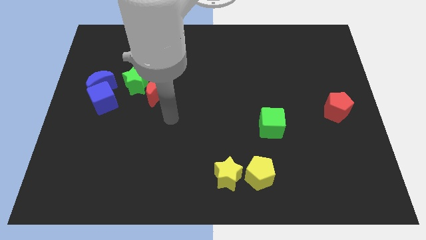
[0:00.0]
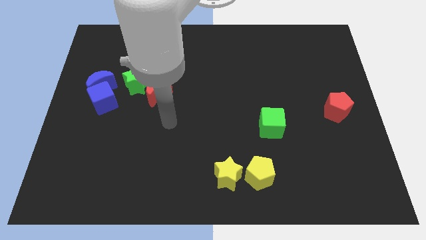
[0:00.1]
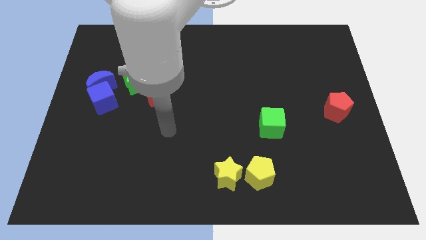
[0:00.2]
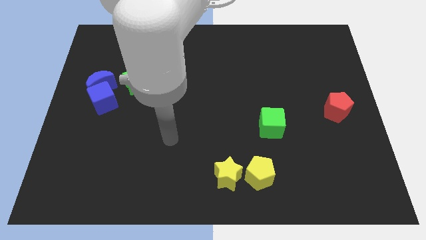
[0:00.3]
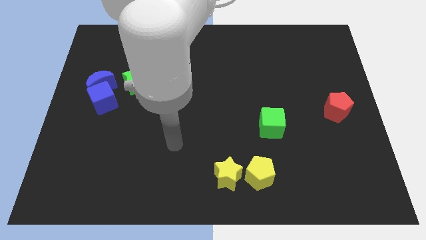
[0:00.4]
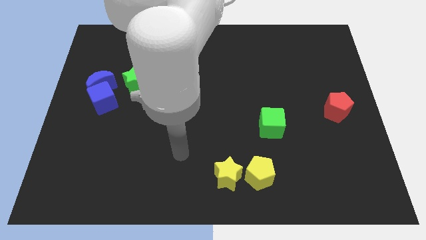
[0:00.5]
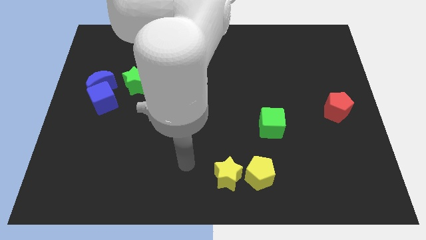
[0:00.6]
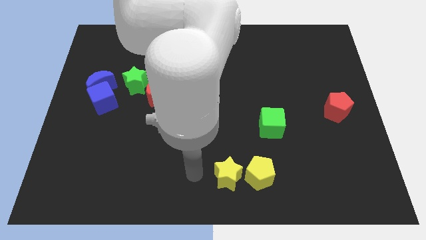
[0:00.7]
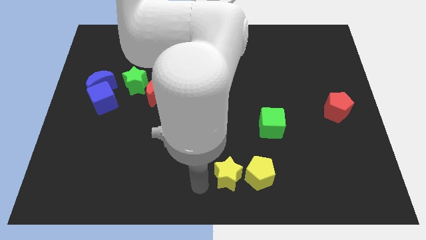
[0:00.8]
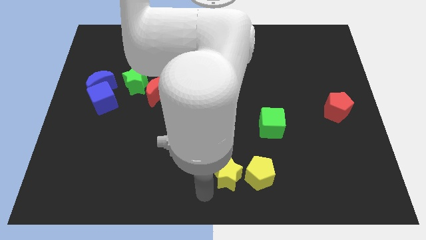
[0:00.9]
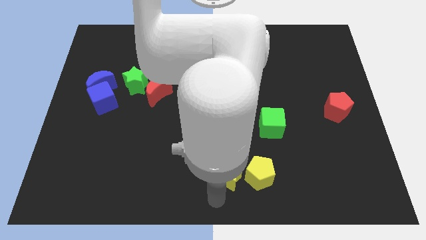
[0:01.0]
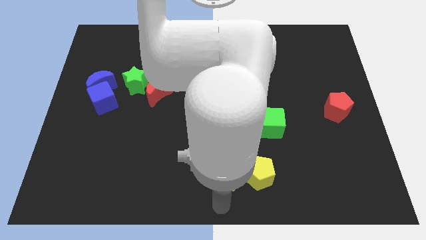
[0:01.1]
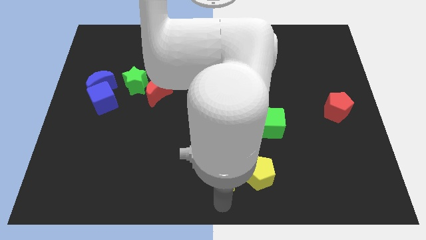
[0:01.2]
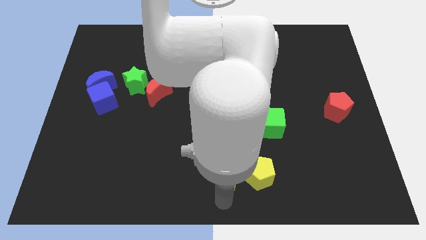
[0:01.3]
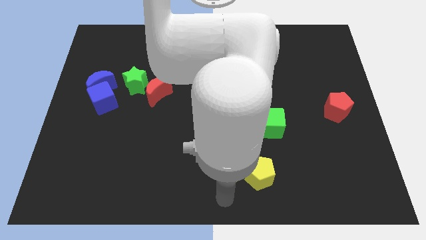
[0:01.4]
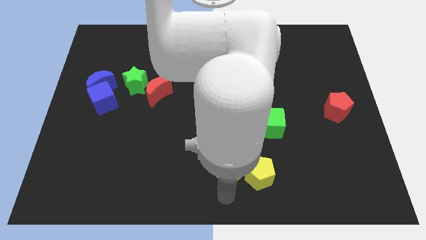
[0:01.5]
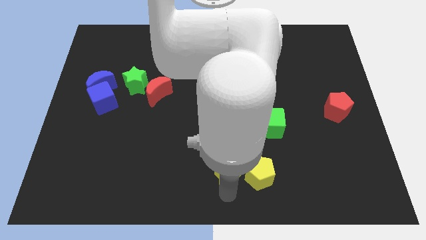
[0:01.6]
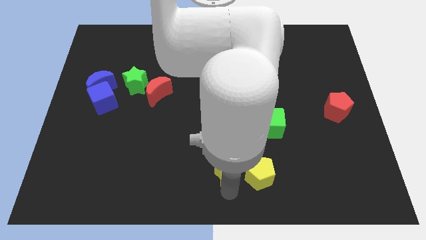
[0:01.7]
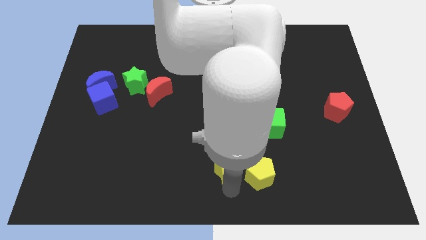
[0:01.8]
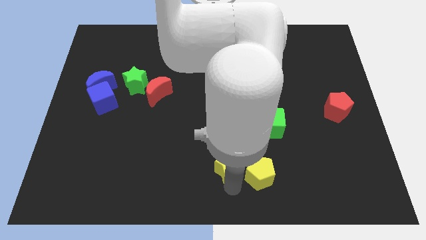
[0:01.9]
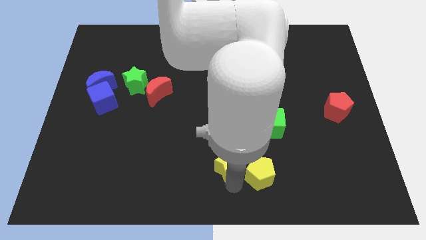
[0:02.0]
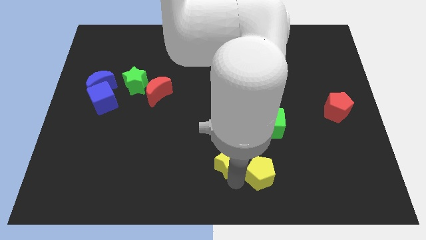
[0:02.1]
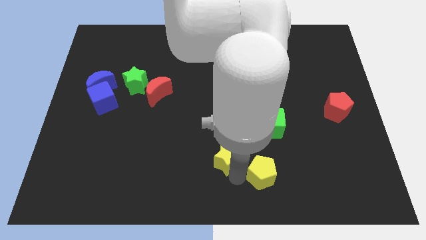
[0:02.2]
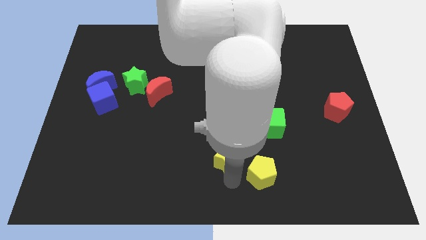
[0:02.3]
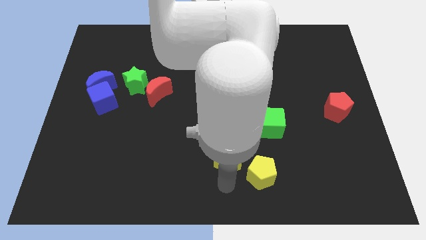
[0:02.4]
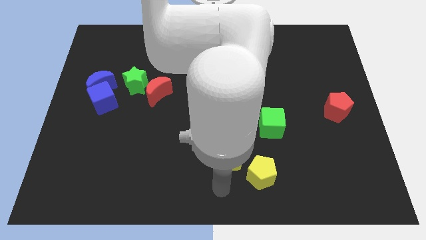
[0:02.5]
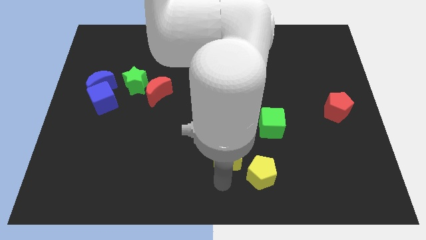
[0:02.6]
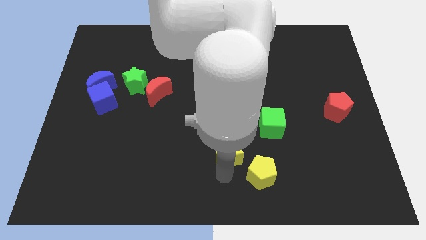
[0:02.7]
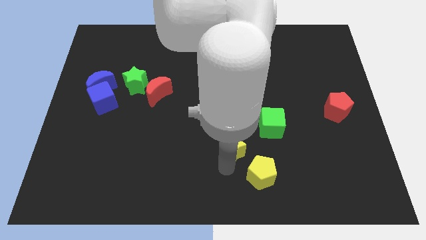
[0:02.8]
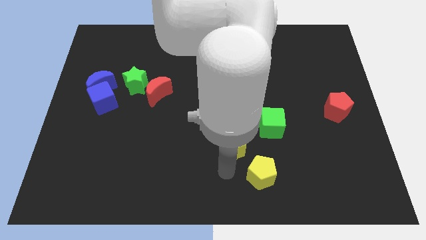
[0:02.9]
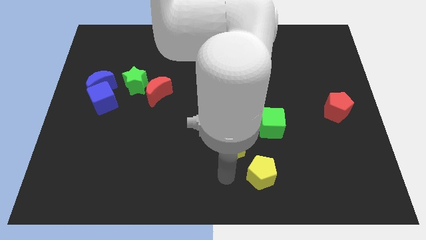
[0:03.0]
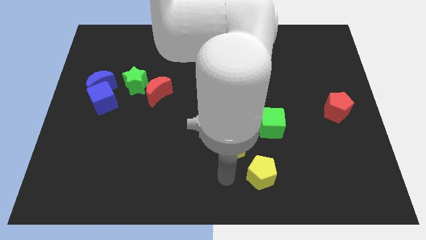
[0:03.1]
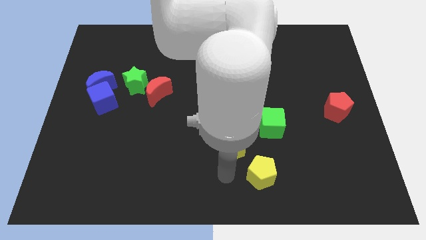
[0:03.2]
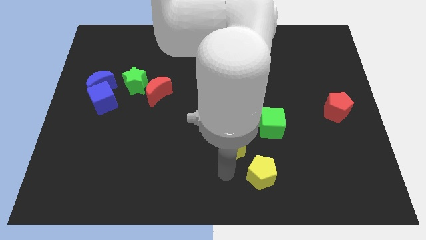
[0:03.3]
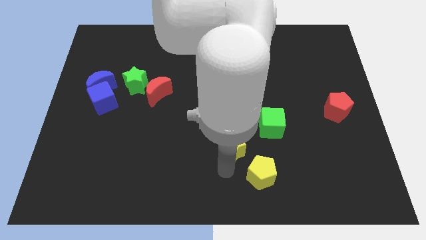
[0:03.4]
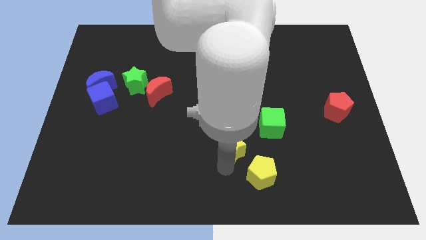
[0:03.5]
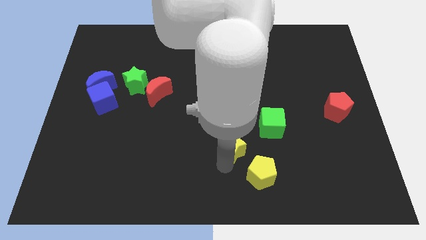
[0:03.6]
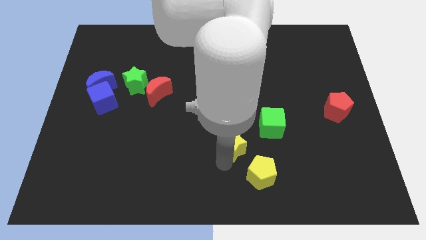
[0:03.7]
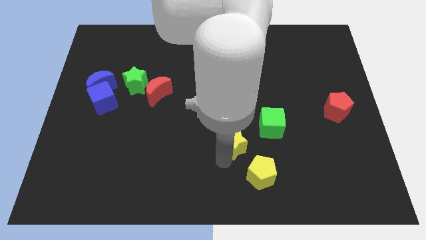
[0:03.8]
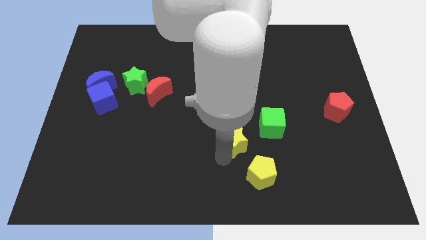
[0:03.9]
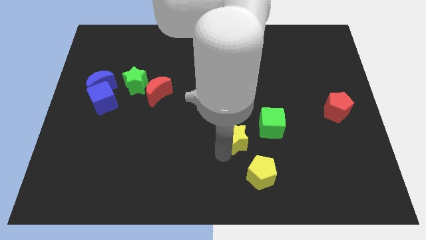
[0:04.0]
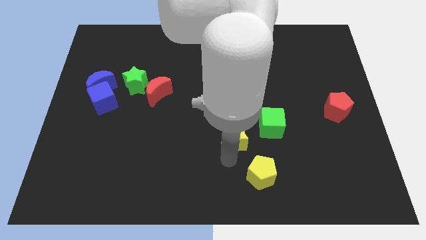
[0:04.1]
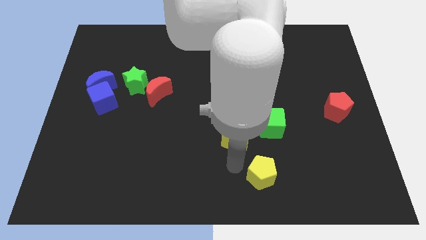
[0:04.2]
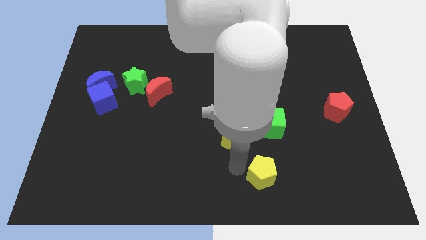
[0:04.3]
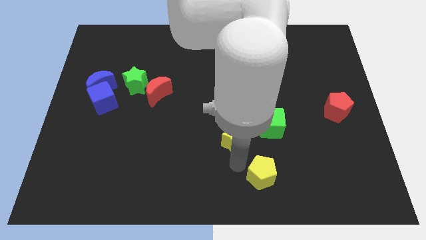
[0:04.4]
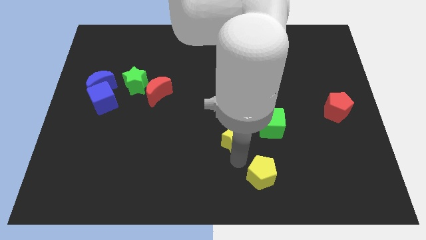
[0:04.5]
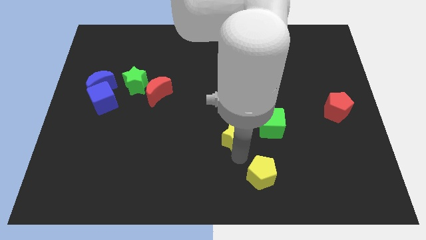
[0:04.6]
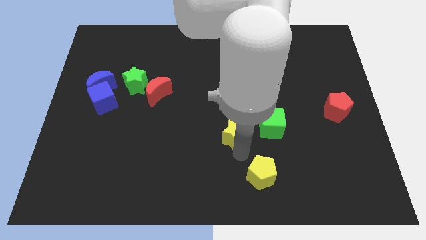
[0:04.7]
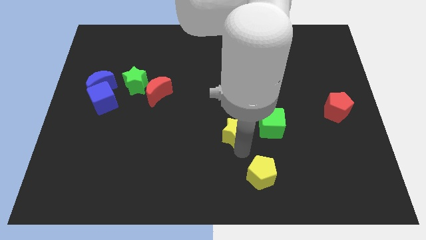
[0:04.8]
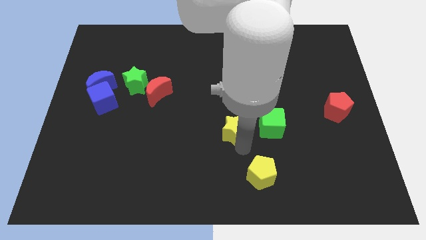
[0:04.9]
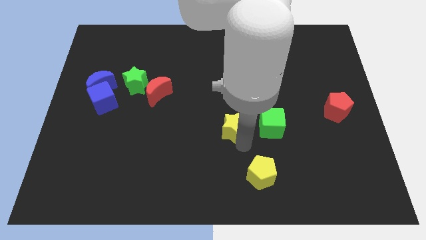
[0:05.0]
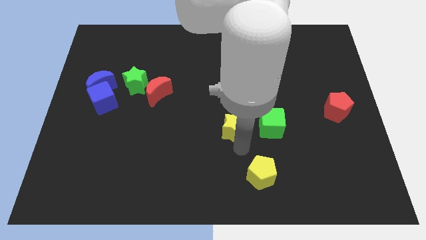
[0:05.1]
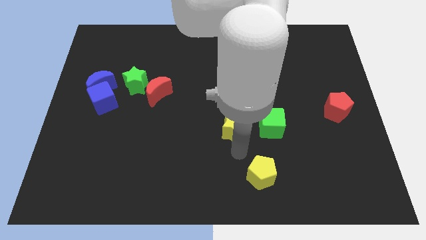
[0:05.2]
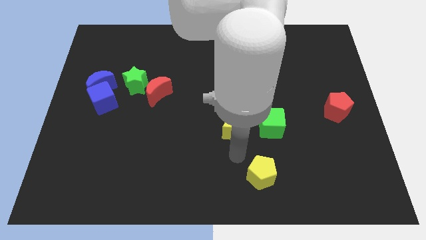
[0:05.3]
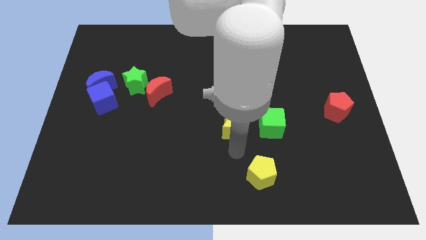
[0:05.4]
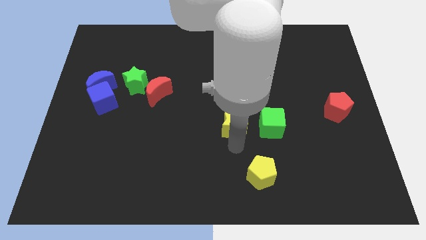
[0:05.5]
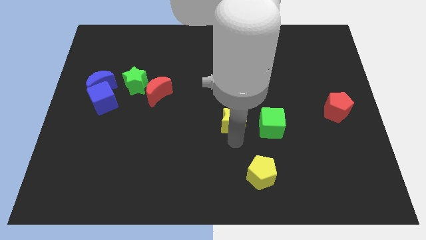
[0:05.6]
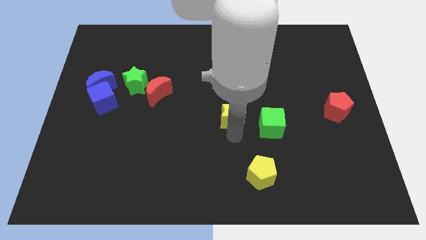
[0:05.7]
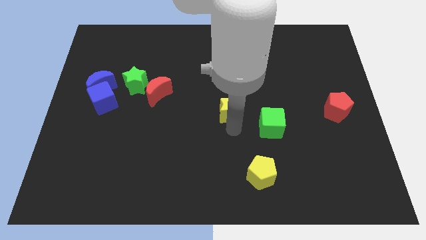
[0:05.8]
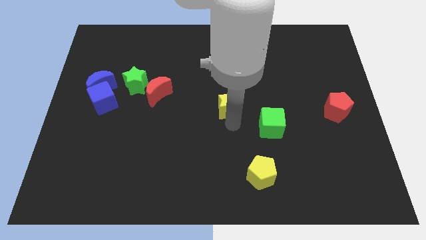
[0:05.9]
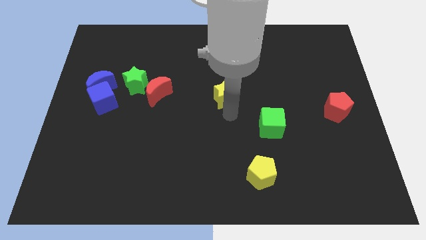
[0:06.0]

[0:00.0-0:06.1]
move the yellow star upwards

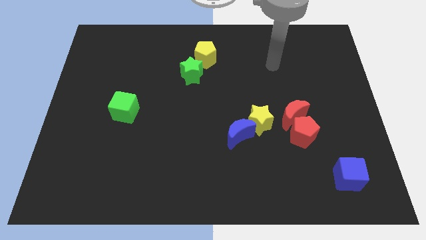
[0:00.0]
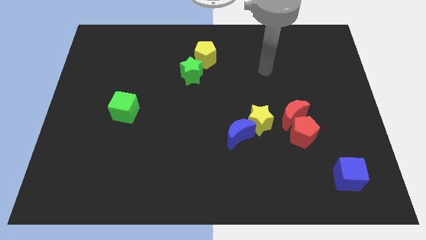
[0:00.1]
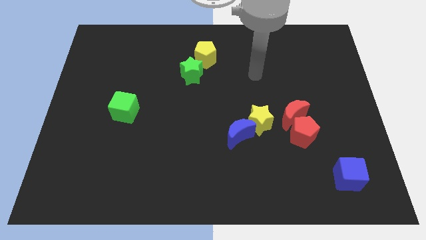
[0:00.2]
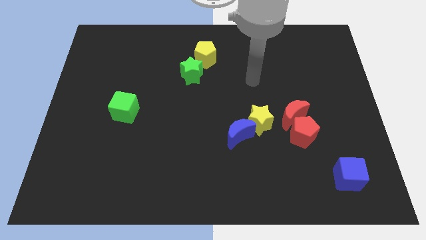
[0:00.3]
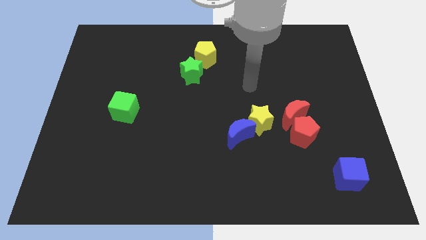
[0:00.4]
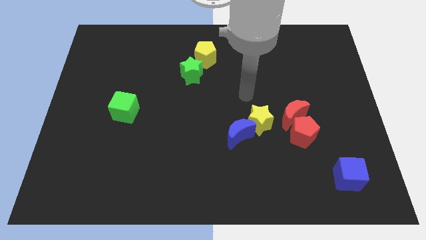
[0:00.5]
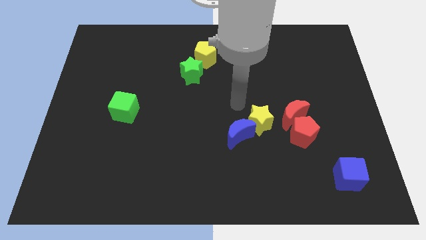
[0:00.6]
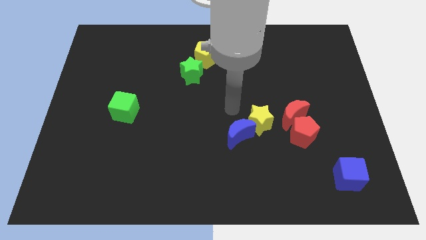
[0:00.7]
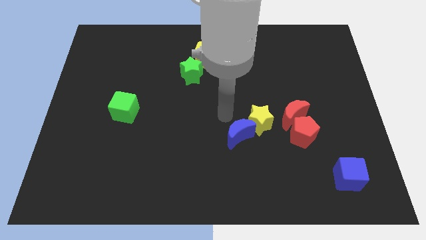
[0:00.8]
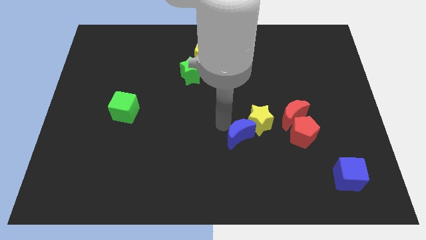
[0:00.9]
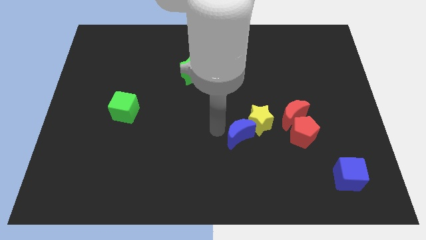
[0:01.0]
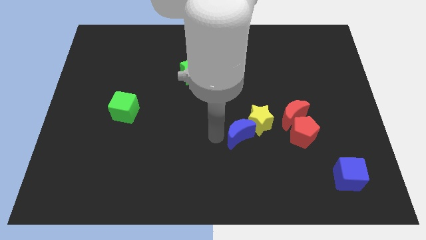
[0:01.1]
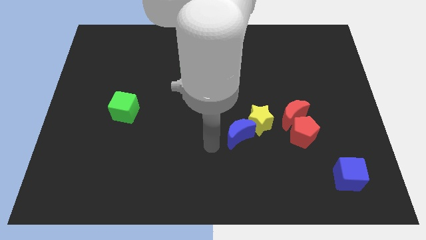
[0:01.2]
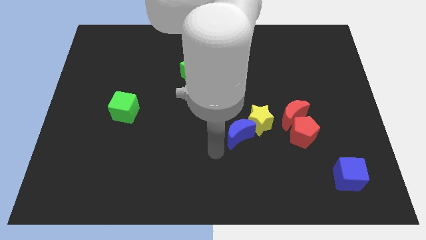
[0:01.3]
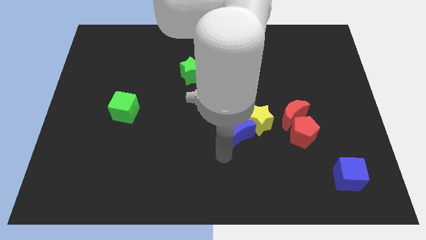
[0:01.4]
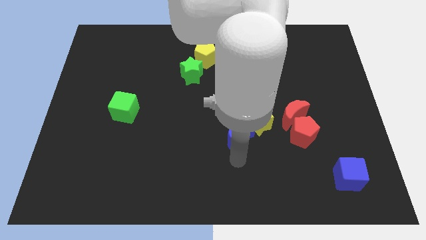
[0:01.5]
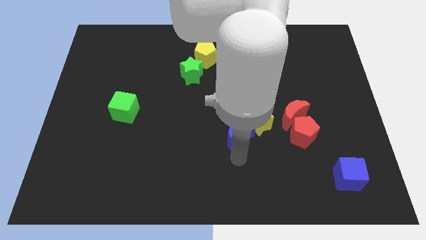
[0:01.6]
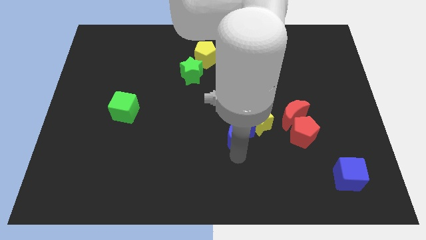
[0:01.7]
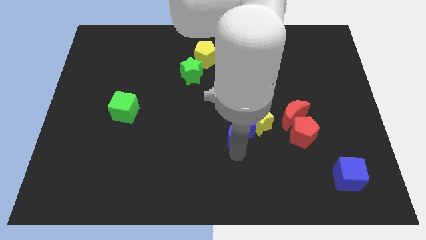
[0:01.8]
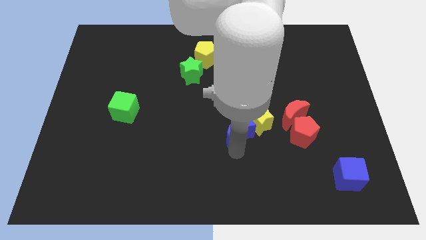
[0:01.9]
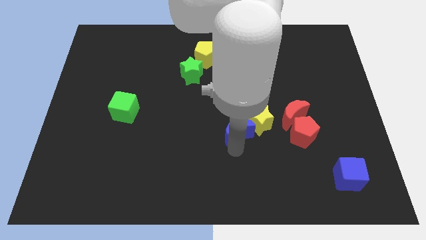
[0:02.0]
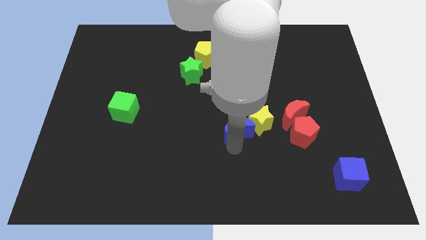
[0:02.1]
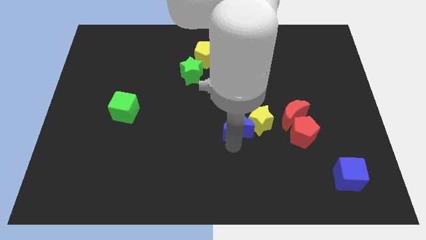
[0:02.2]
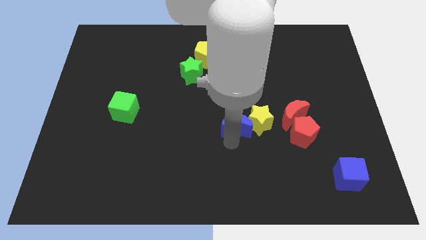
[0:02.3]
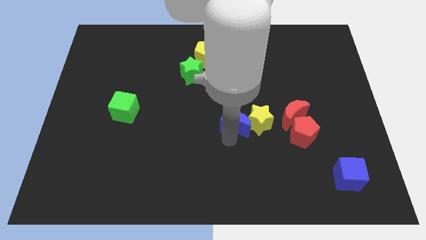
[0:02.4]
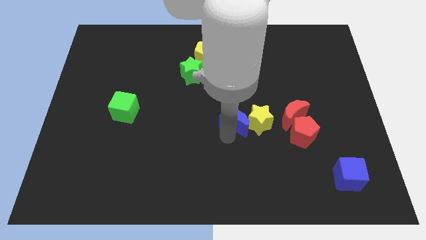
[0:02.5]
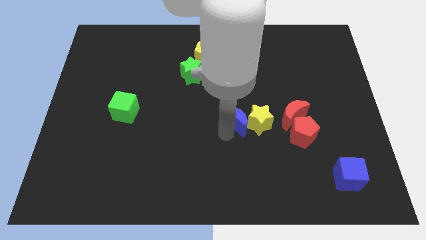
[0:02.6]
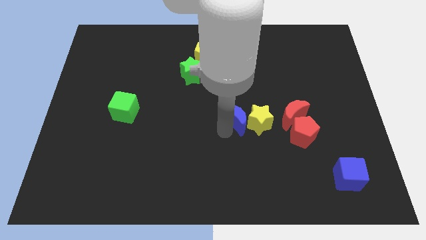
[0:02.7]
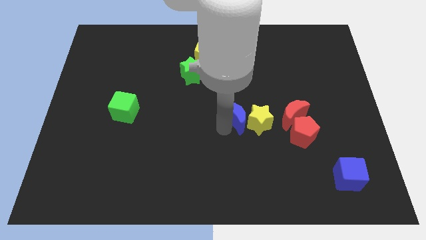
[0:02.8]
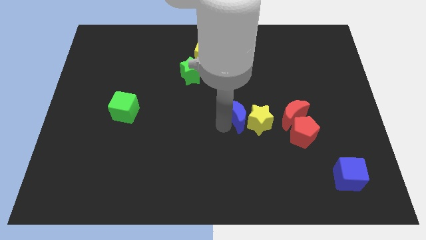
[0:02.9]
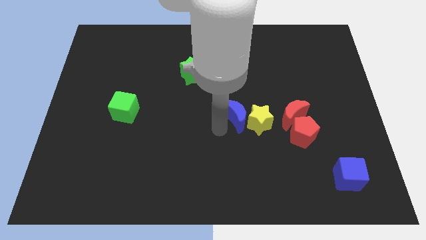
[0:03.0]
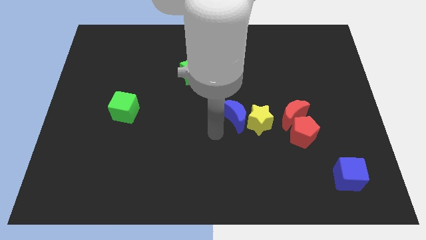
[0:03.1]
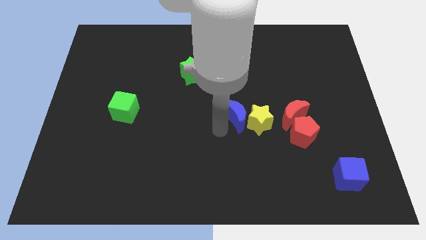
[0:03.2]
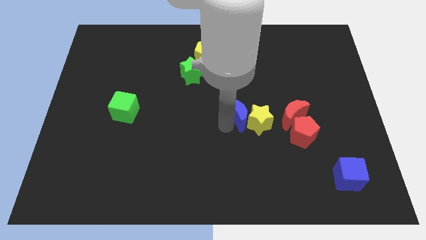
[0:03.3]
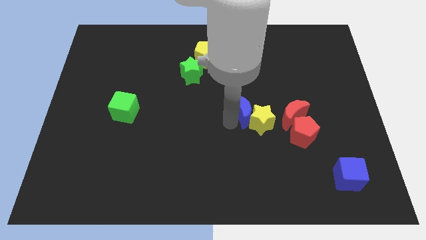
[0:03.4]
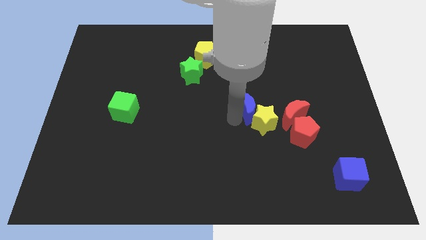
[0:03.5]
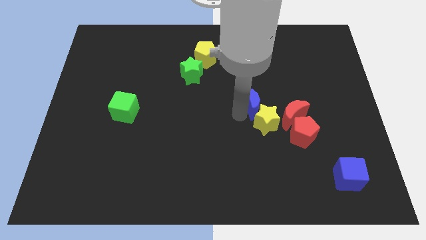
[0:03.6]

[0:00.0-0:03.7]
move the blue moon up and right diagonally a little
